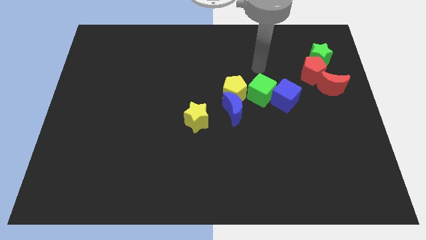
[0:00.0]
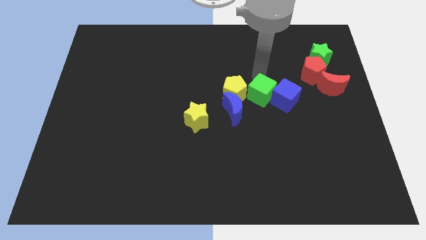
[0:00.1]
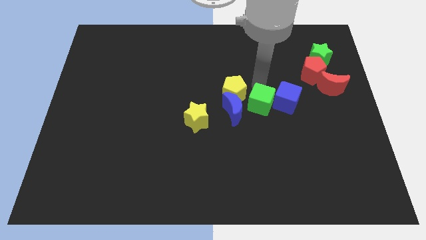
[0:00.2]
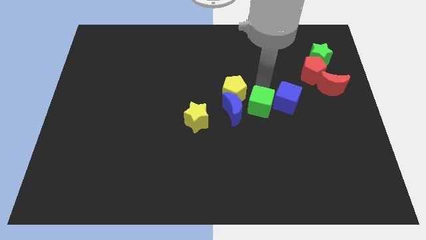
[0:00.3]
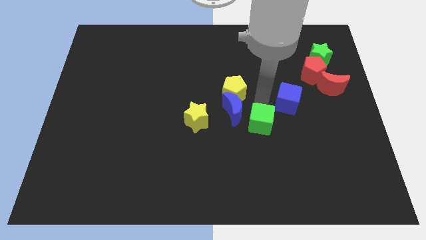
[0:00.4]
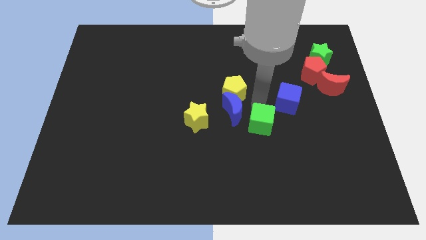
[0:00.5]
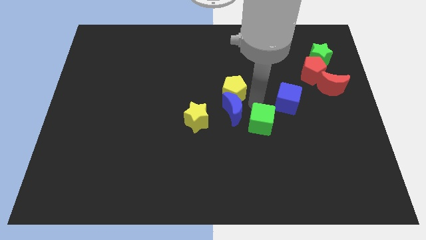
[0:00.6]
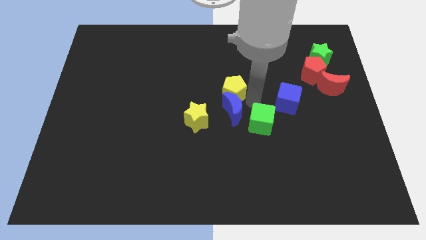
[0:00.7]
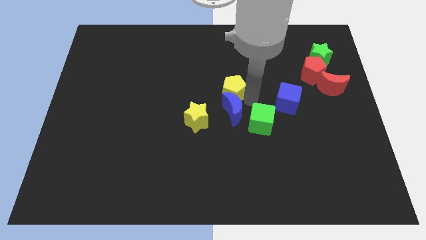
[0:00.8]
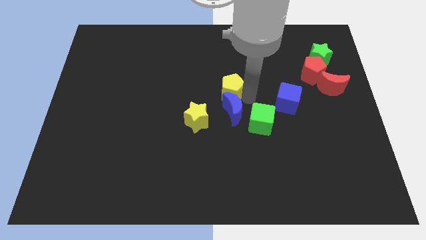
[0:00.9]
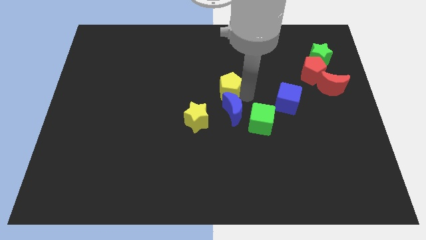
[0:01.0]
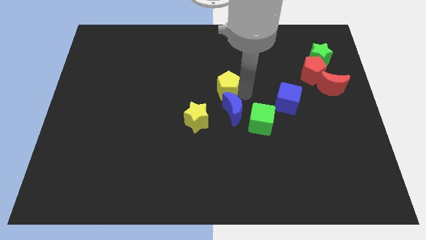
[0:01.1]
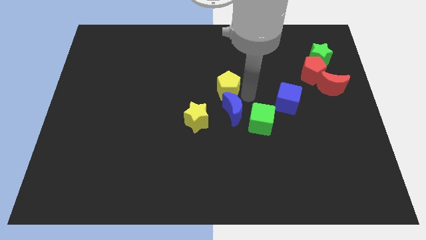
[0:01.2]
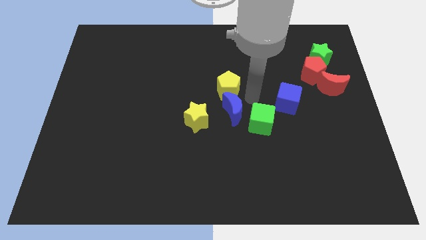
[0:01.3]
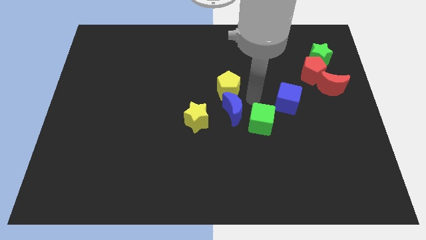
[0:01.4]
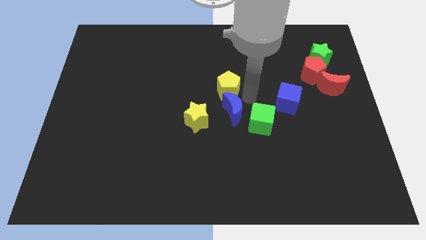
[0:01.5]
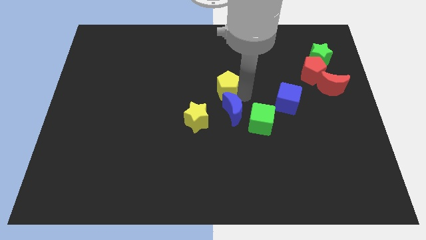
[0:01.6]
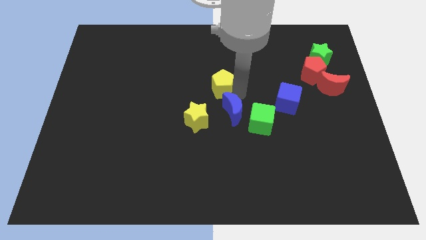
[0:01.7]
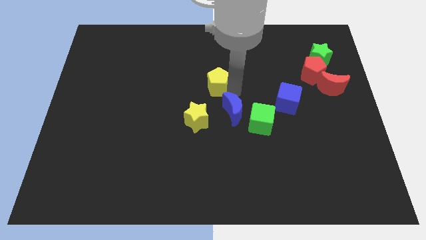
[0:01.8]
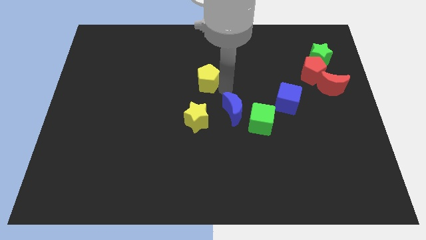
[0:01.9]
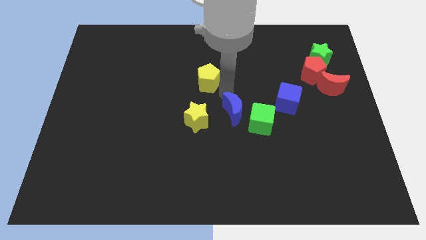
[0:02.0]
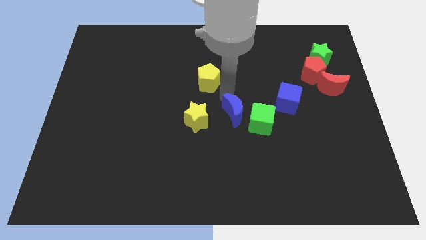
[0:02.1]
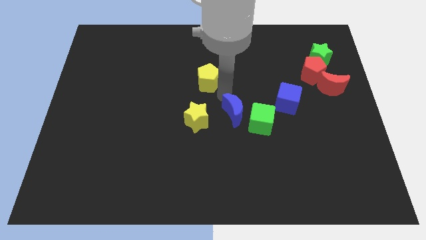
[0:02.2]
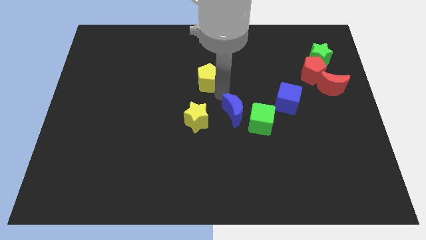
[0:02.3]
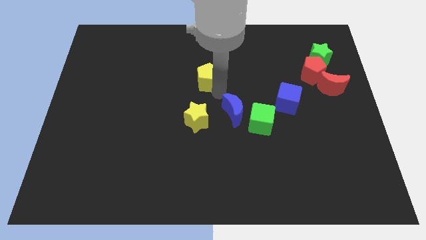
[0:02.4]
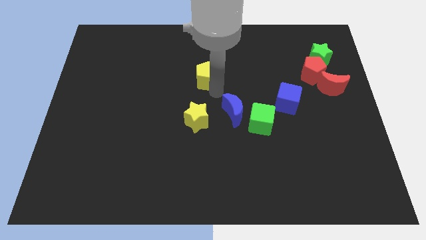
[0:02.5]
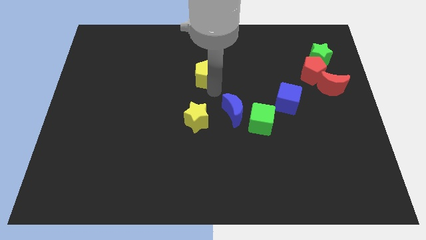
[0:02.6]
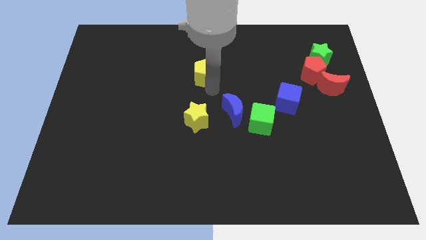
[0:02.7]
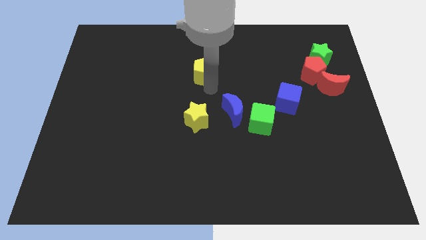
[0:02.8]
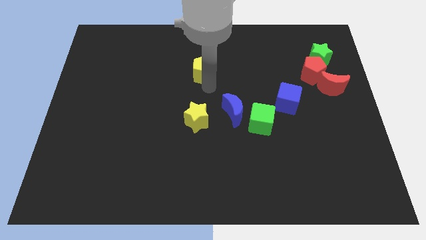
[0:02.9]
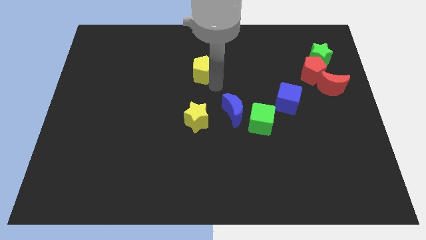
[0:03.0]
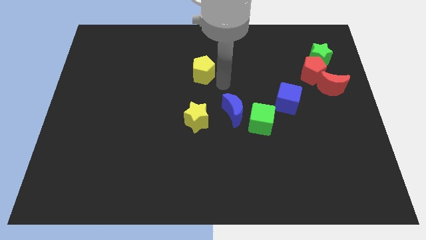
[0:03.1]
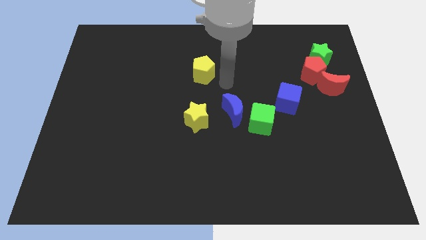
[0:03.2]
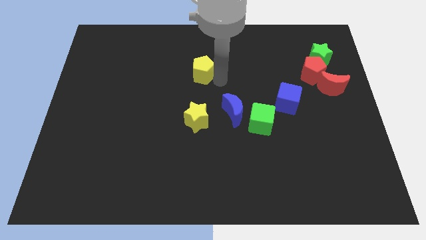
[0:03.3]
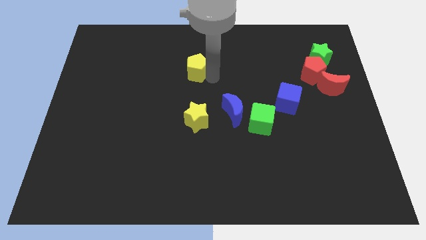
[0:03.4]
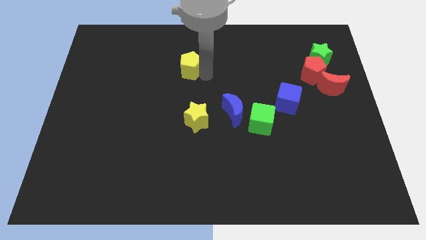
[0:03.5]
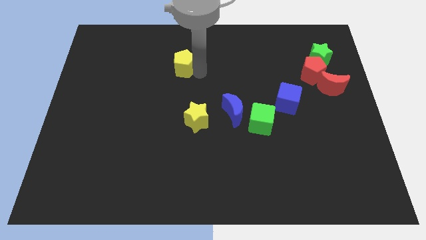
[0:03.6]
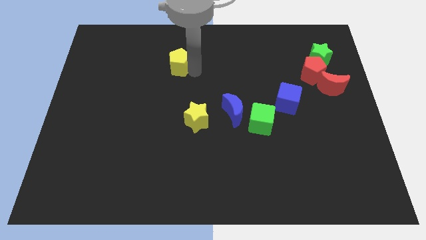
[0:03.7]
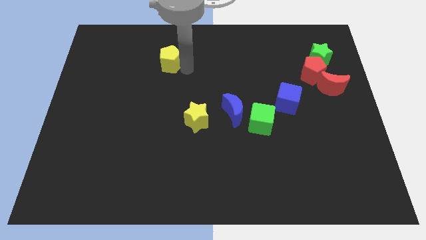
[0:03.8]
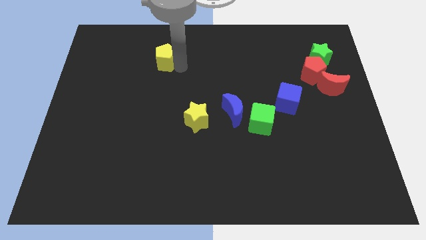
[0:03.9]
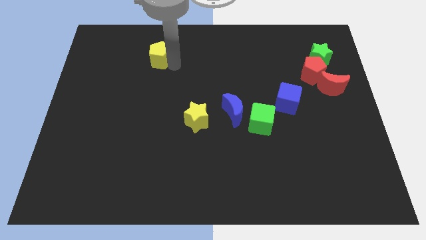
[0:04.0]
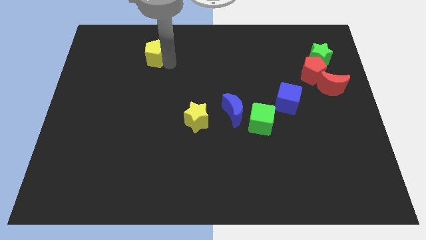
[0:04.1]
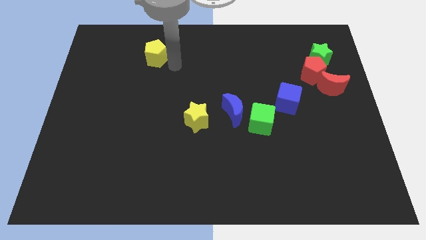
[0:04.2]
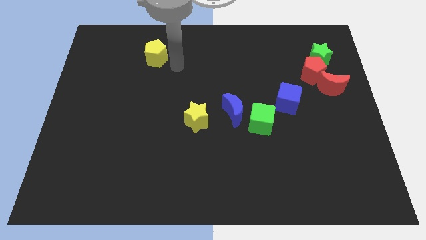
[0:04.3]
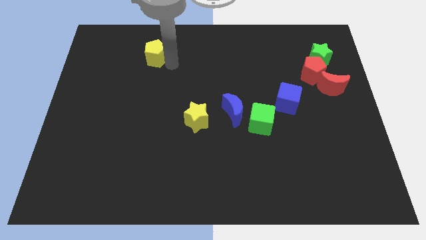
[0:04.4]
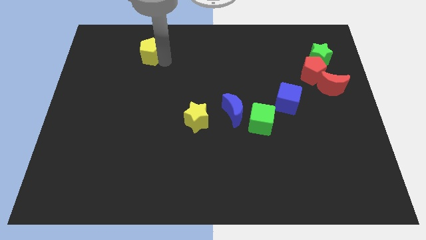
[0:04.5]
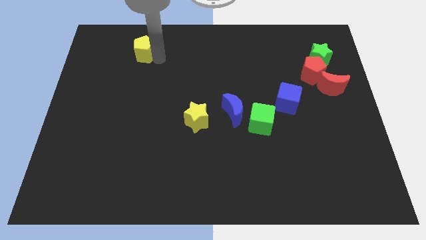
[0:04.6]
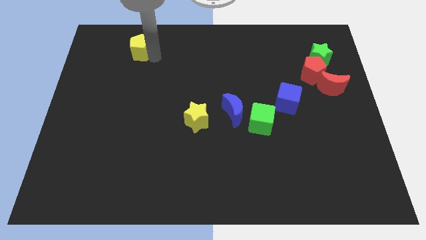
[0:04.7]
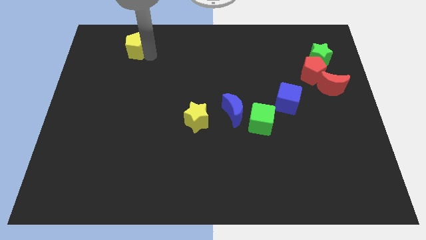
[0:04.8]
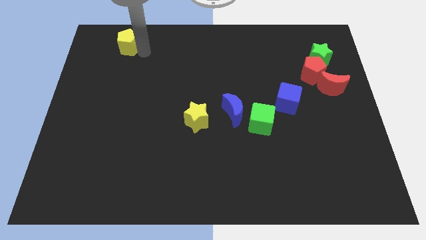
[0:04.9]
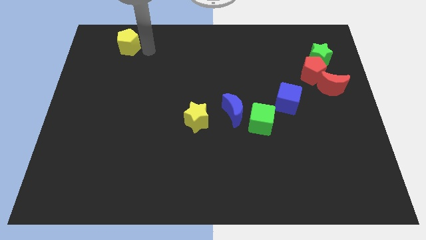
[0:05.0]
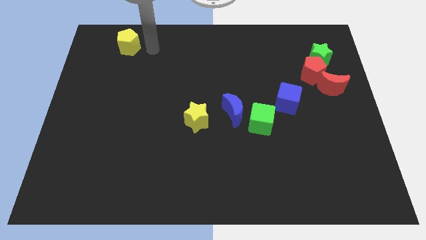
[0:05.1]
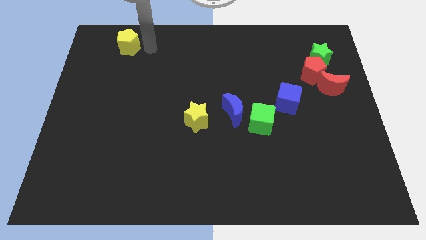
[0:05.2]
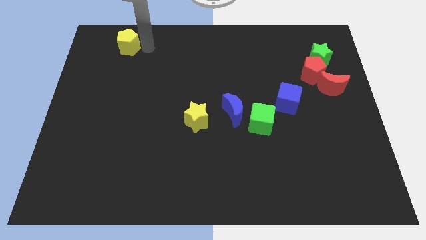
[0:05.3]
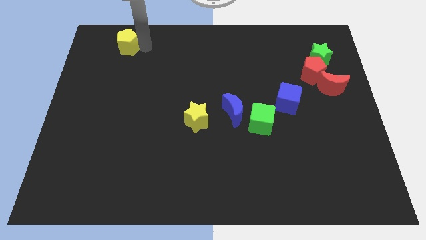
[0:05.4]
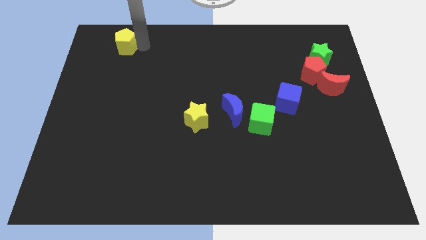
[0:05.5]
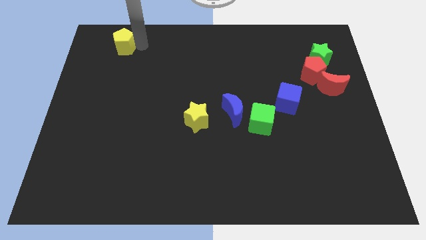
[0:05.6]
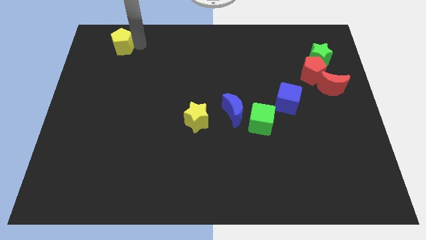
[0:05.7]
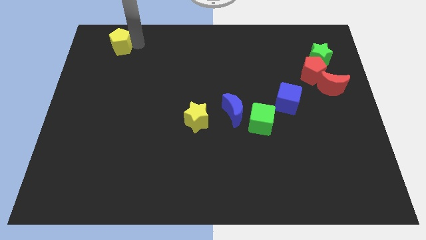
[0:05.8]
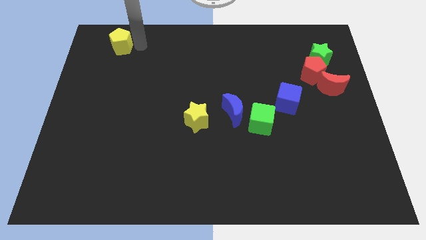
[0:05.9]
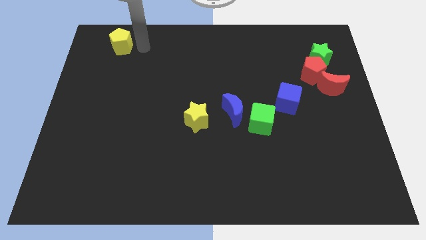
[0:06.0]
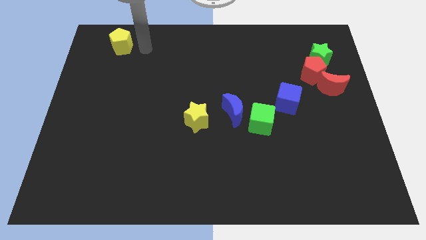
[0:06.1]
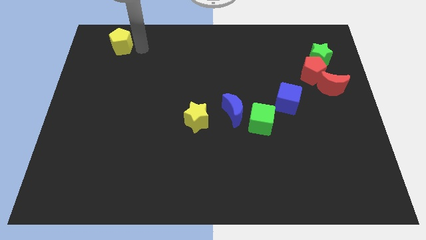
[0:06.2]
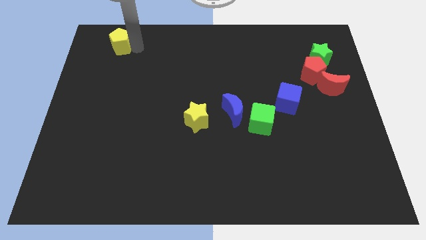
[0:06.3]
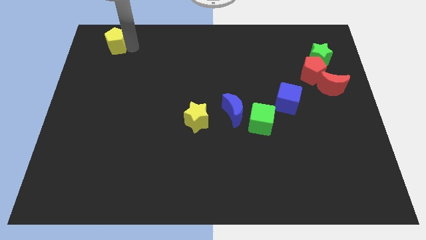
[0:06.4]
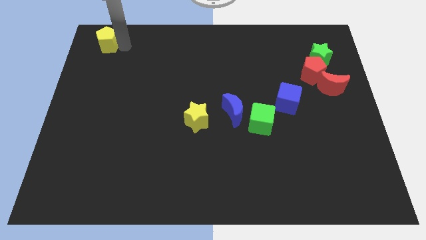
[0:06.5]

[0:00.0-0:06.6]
slide the yellow pentagon to the upper left corner
